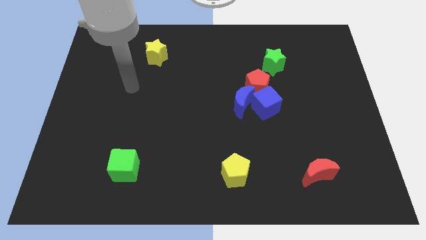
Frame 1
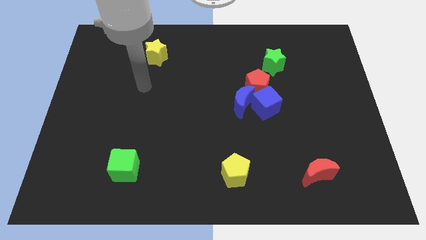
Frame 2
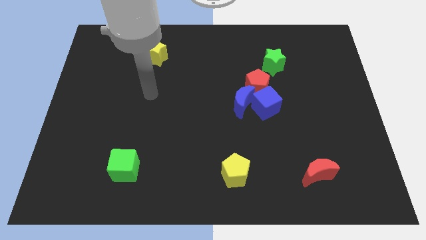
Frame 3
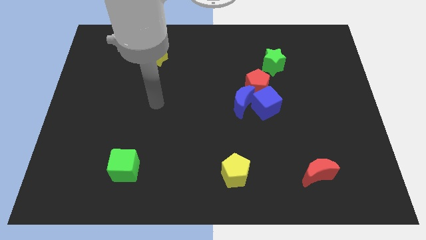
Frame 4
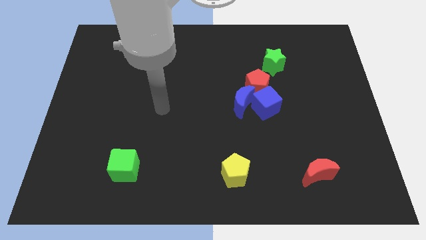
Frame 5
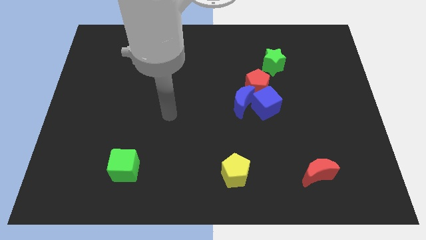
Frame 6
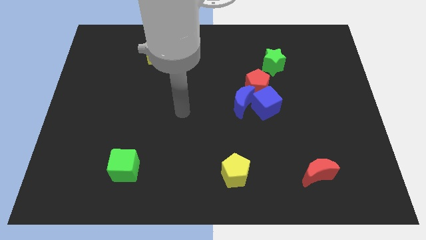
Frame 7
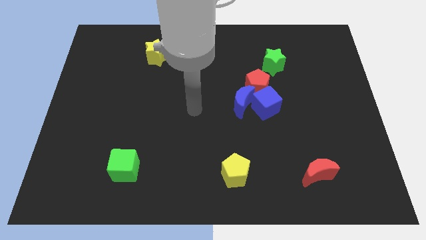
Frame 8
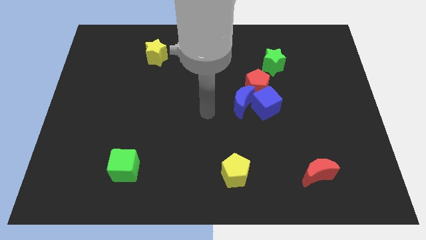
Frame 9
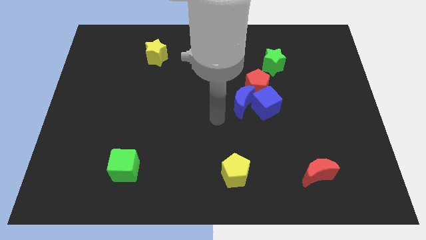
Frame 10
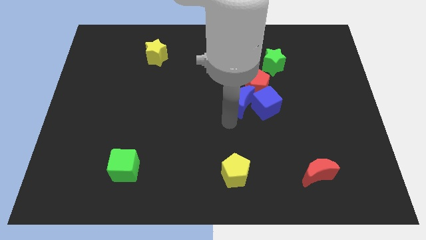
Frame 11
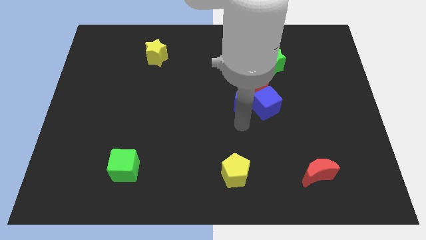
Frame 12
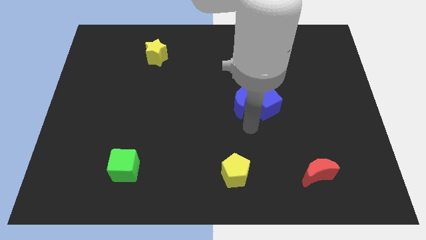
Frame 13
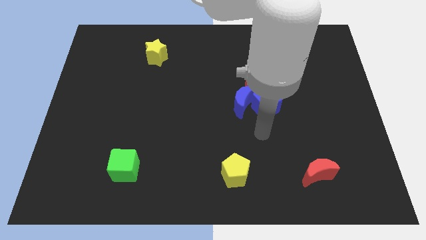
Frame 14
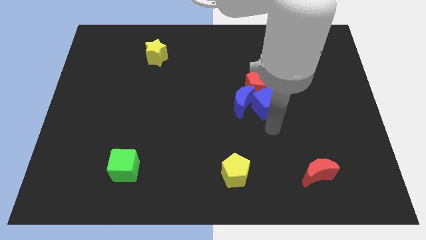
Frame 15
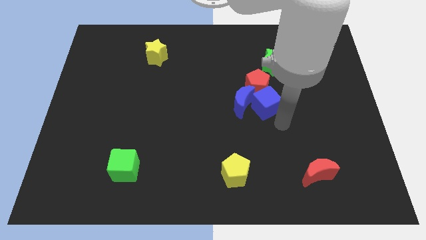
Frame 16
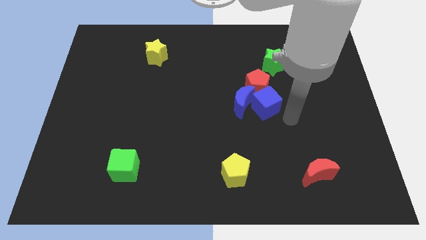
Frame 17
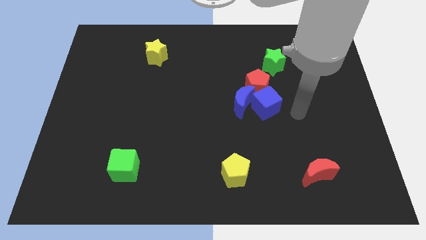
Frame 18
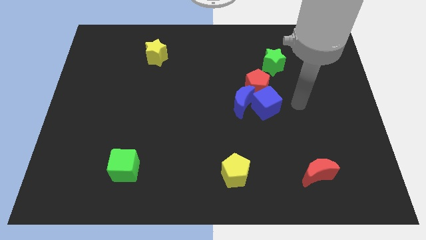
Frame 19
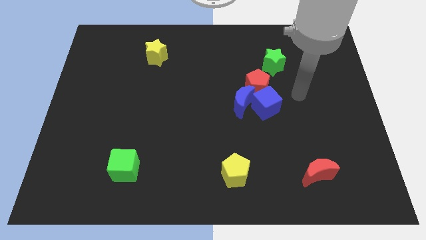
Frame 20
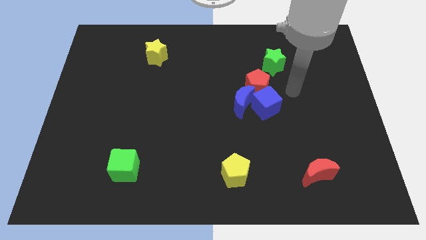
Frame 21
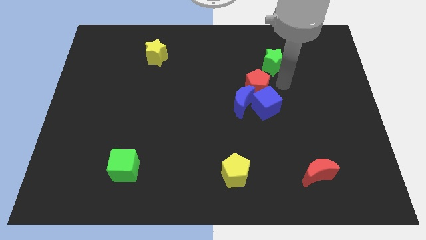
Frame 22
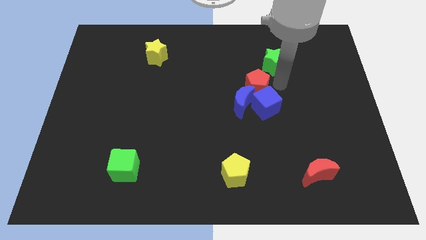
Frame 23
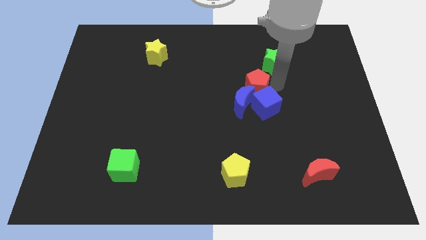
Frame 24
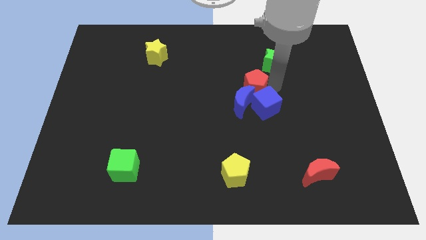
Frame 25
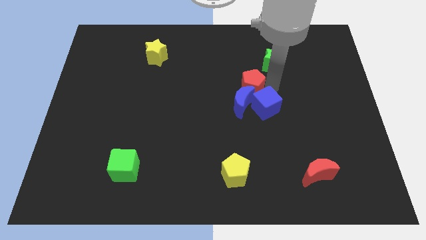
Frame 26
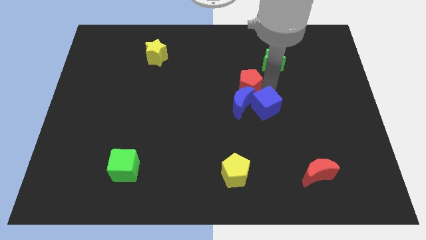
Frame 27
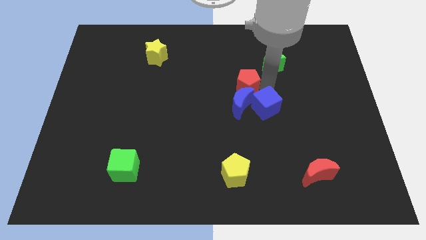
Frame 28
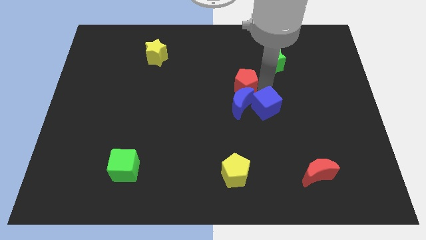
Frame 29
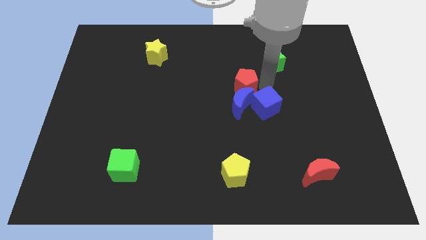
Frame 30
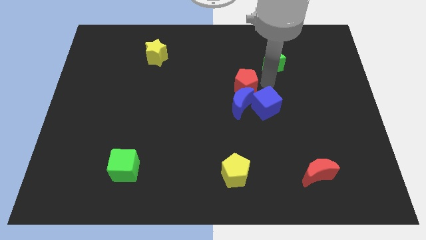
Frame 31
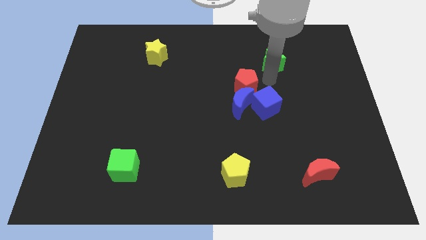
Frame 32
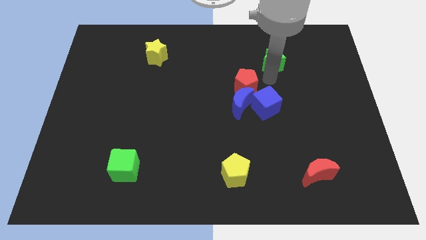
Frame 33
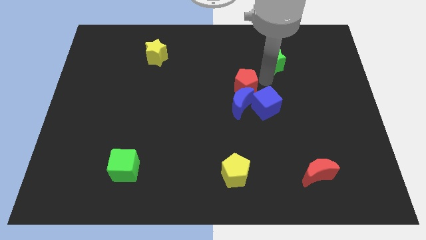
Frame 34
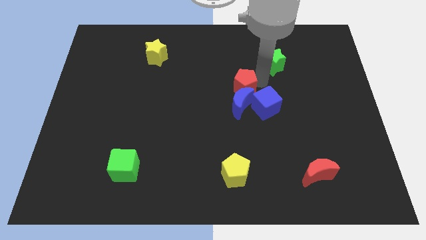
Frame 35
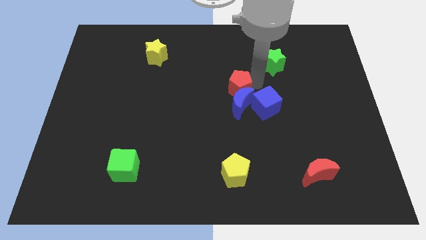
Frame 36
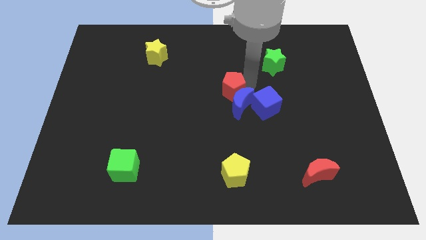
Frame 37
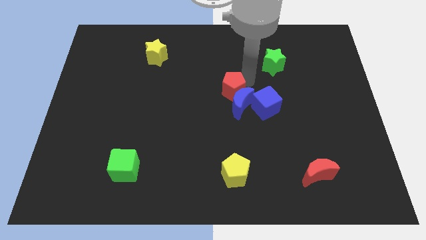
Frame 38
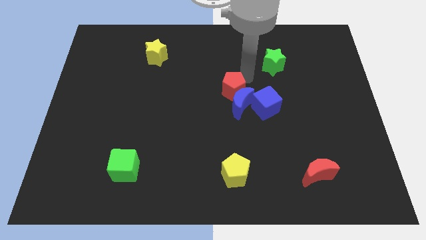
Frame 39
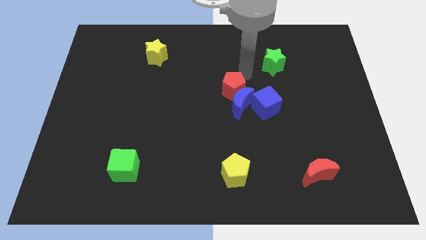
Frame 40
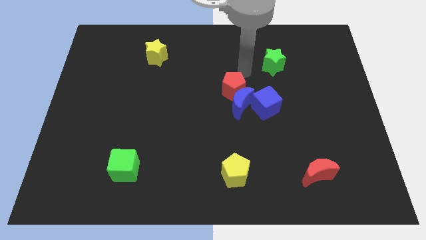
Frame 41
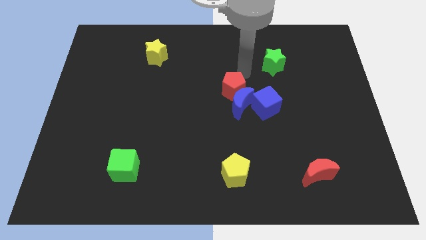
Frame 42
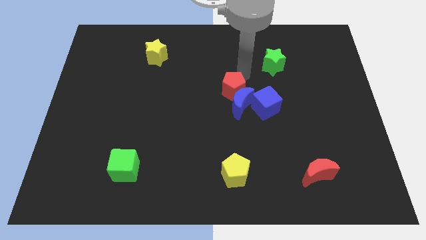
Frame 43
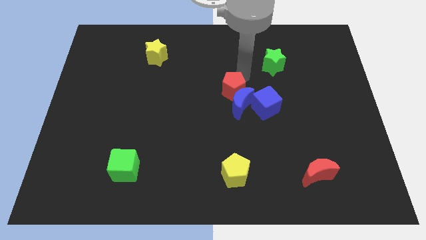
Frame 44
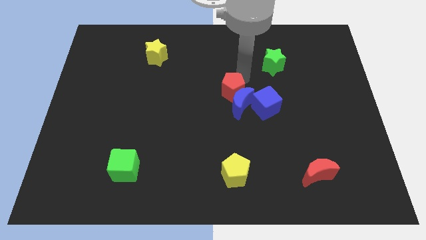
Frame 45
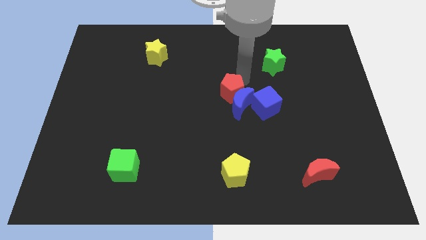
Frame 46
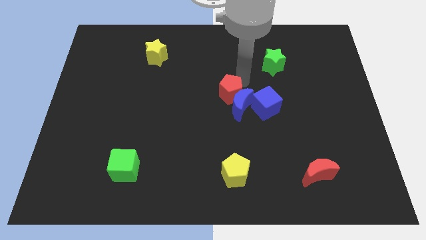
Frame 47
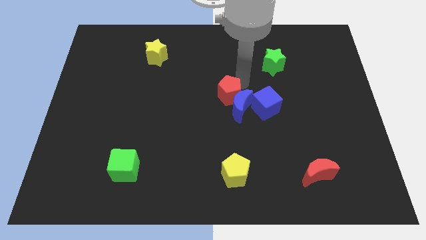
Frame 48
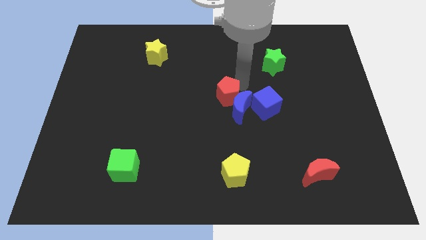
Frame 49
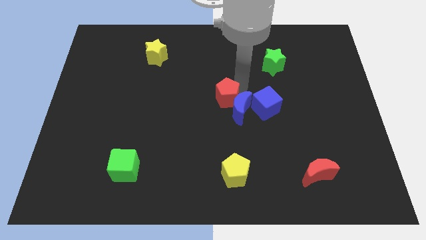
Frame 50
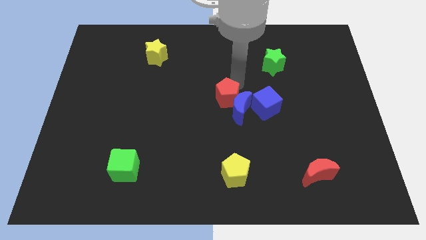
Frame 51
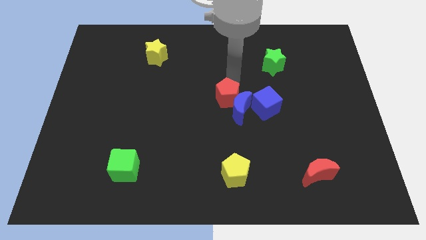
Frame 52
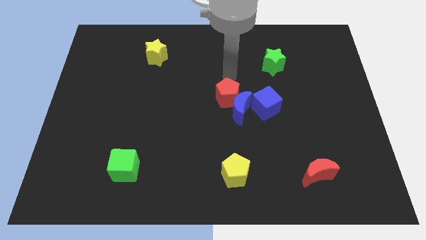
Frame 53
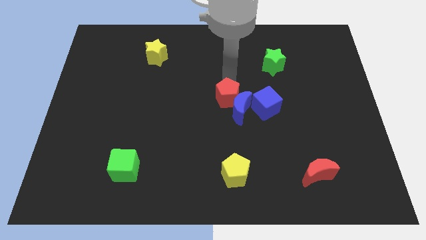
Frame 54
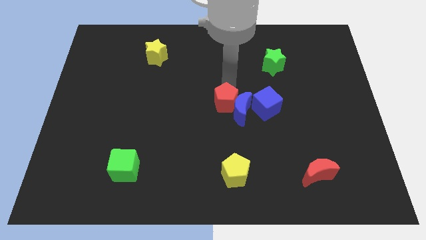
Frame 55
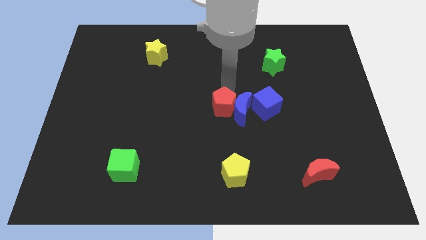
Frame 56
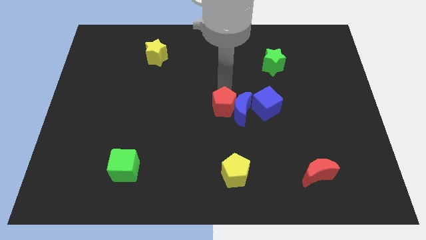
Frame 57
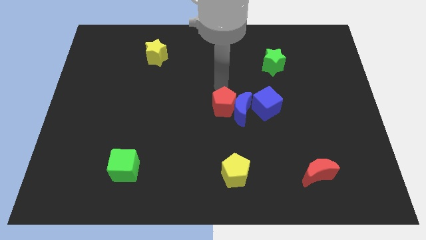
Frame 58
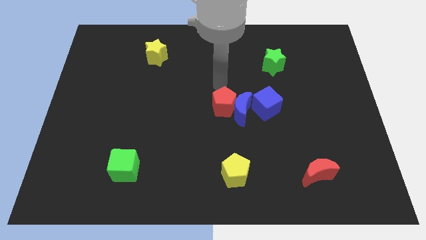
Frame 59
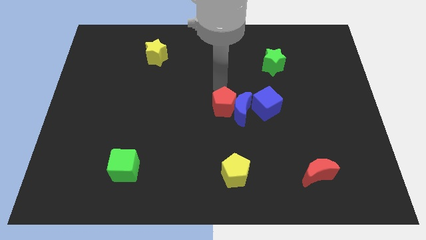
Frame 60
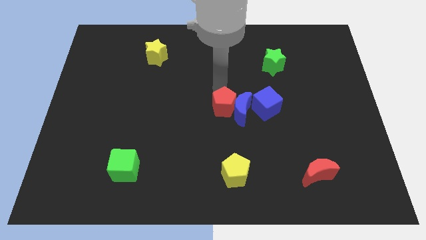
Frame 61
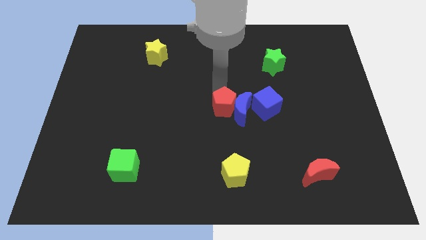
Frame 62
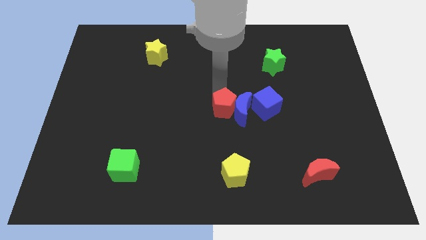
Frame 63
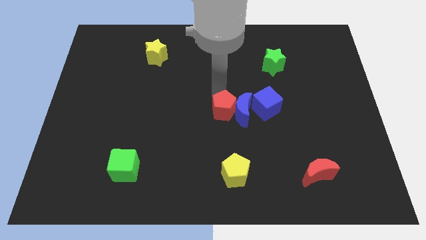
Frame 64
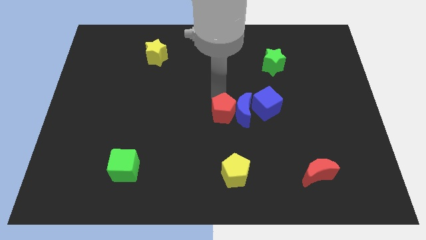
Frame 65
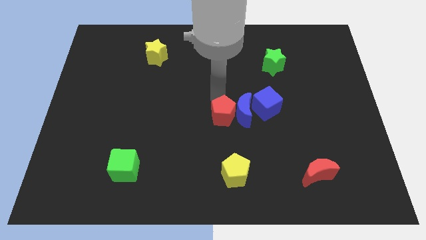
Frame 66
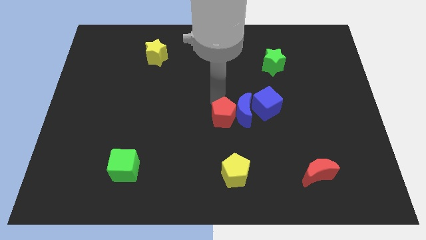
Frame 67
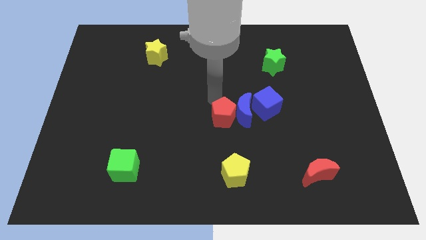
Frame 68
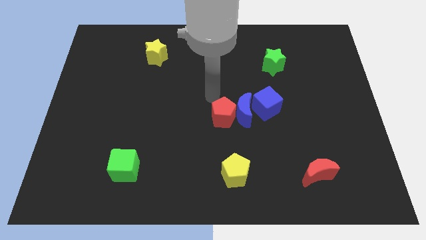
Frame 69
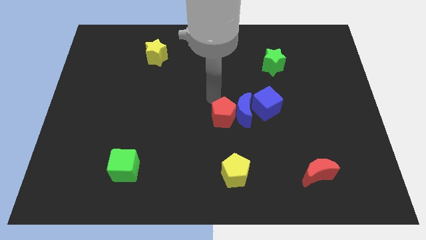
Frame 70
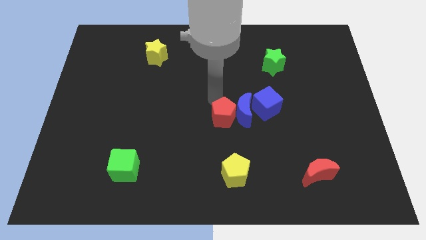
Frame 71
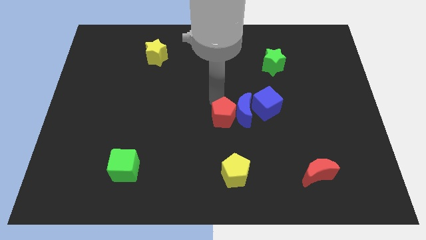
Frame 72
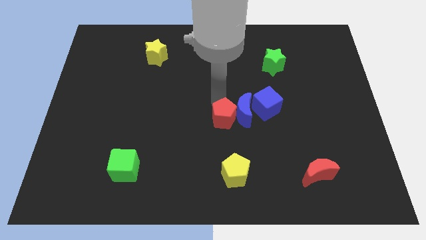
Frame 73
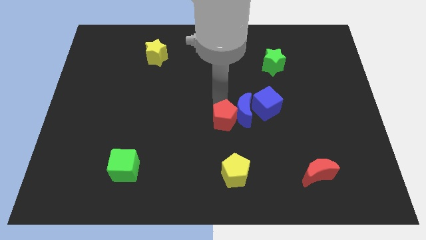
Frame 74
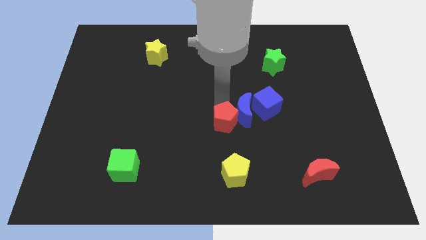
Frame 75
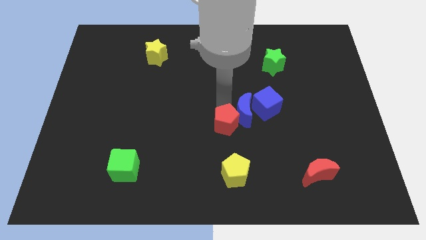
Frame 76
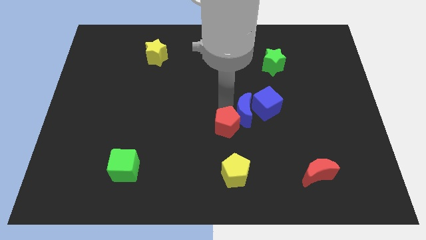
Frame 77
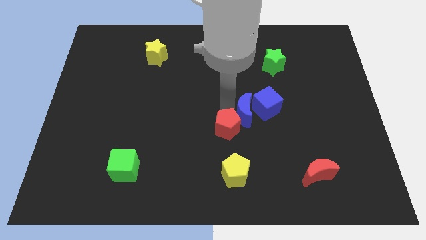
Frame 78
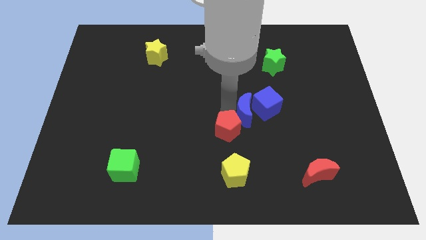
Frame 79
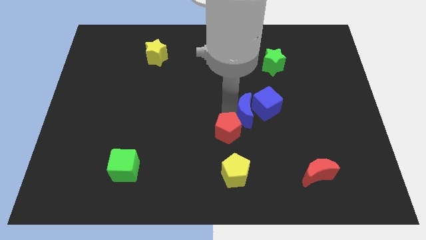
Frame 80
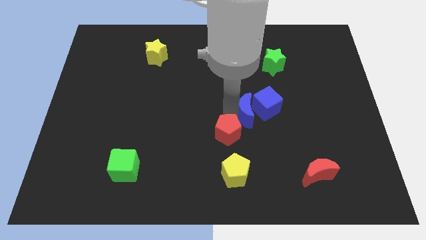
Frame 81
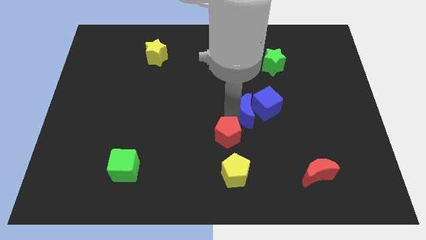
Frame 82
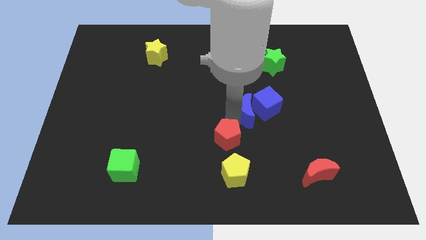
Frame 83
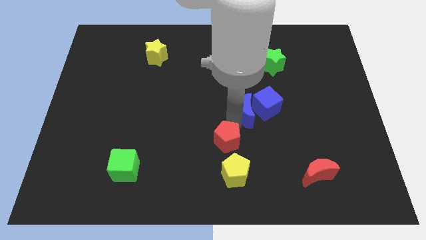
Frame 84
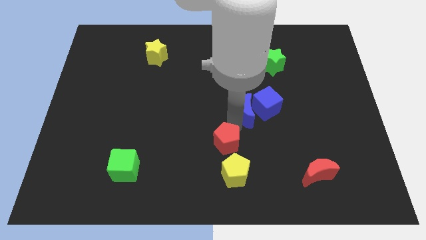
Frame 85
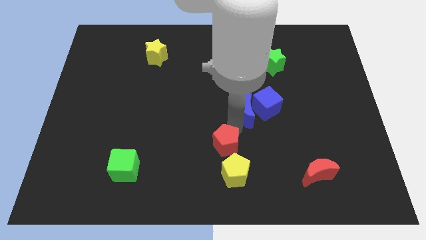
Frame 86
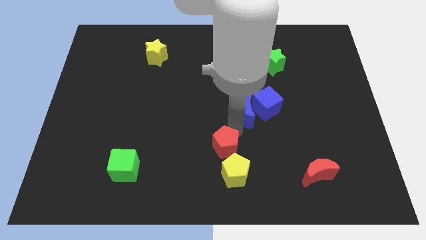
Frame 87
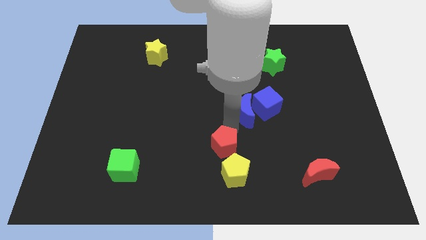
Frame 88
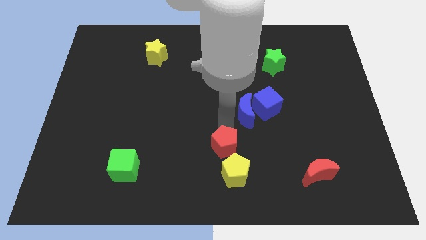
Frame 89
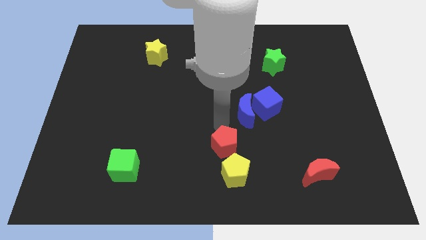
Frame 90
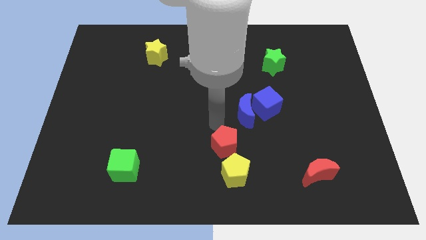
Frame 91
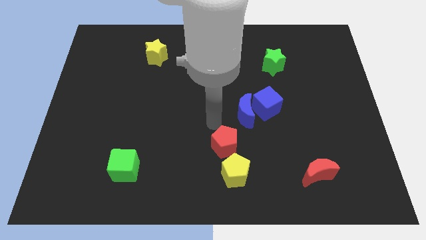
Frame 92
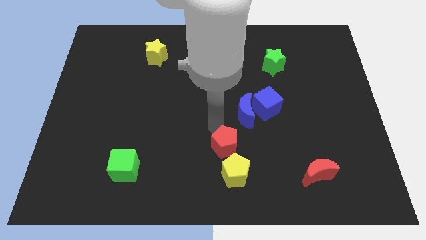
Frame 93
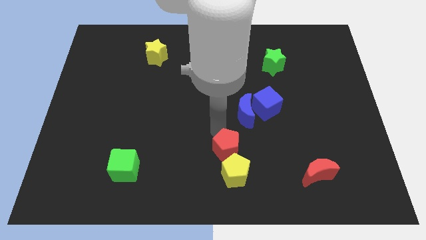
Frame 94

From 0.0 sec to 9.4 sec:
push the red pentagon next to the yellow pentagon
